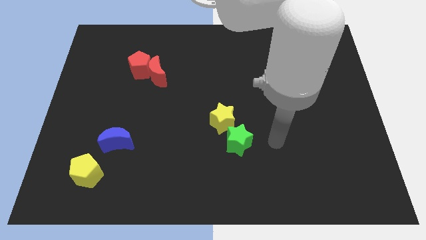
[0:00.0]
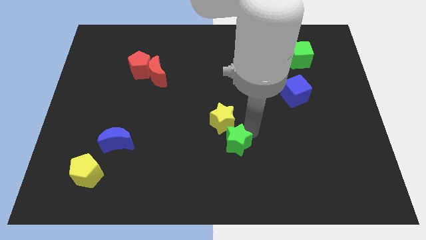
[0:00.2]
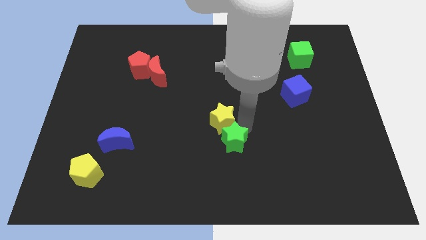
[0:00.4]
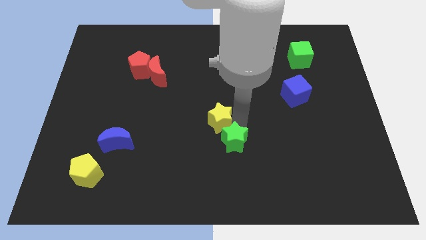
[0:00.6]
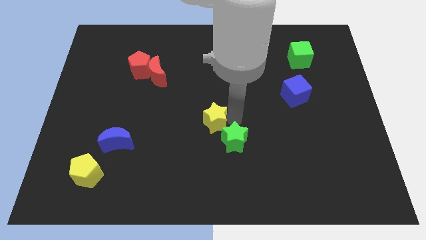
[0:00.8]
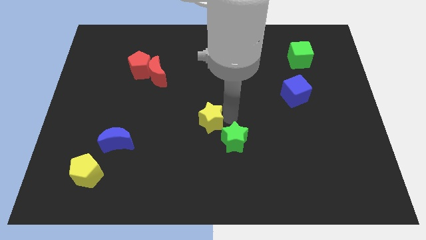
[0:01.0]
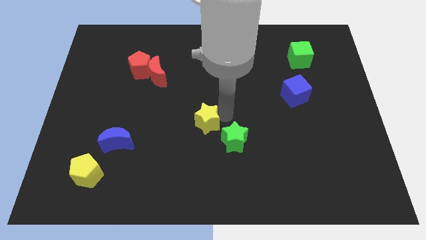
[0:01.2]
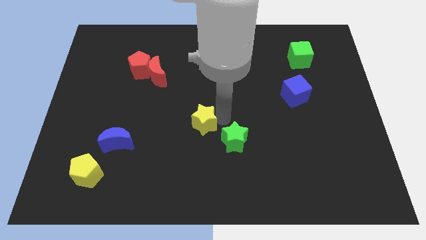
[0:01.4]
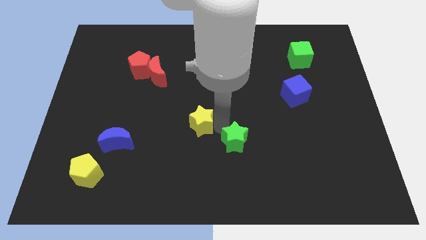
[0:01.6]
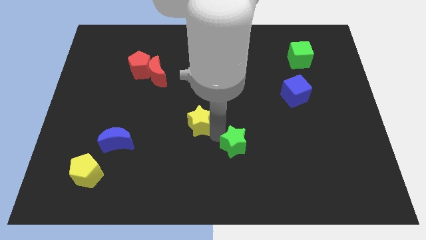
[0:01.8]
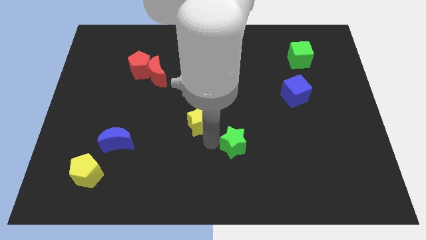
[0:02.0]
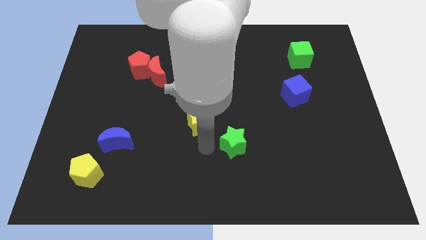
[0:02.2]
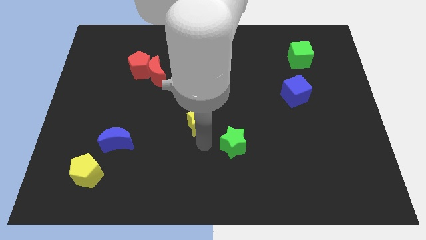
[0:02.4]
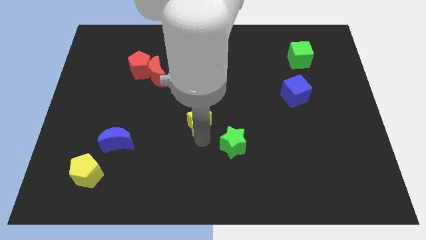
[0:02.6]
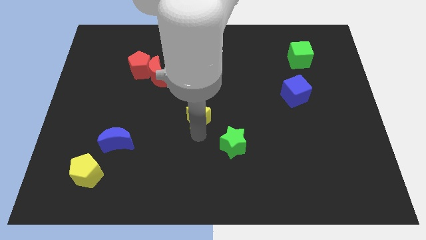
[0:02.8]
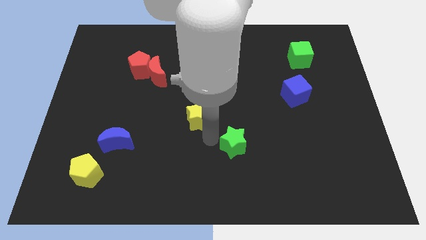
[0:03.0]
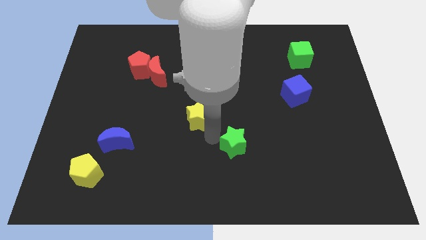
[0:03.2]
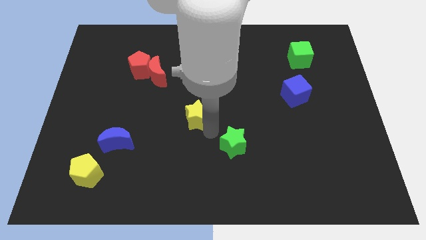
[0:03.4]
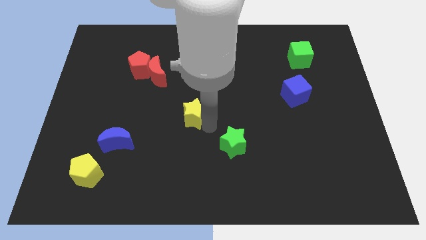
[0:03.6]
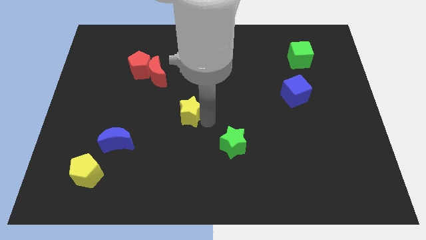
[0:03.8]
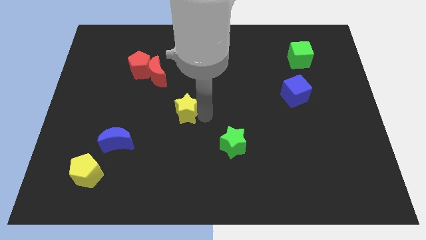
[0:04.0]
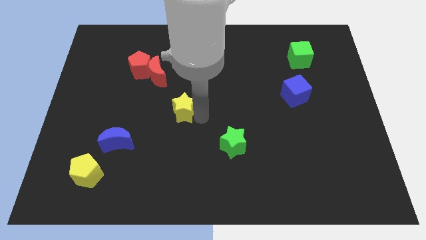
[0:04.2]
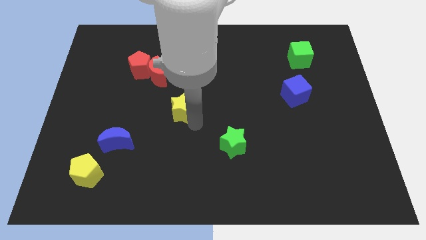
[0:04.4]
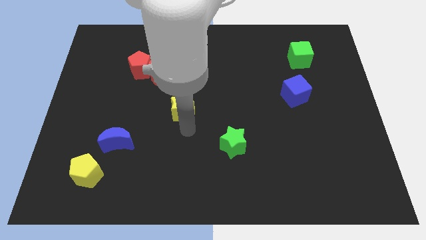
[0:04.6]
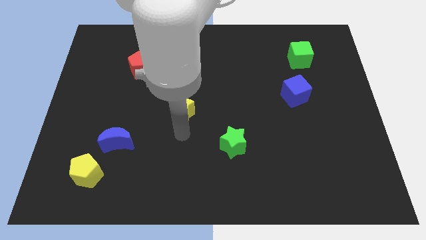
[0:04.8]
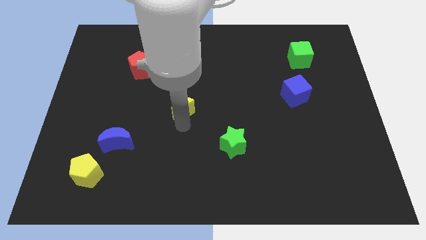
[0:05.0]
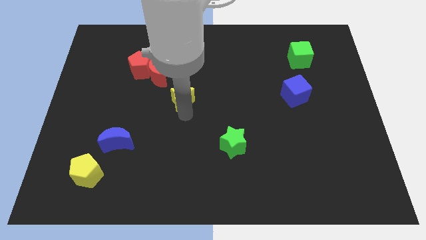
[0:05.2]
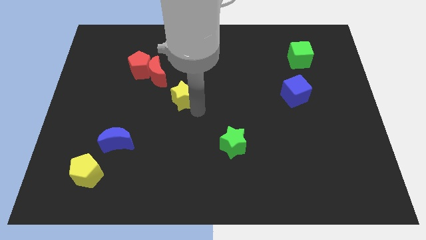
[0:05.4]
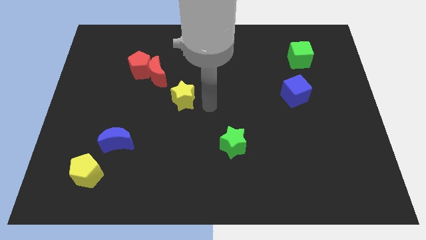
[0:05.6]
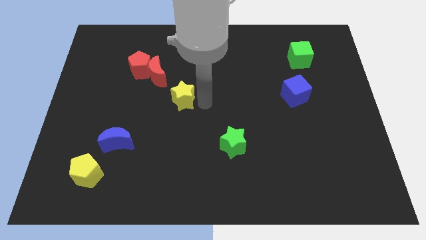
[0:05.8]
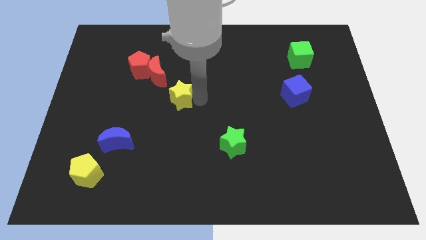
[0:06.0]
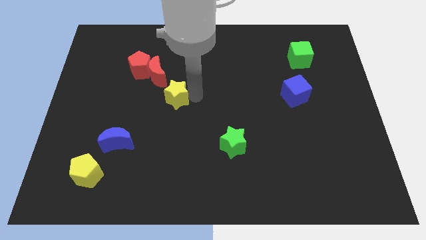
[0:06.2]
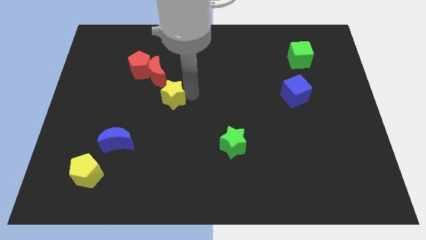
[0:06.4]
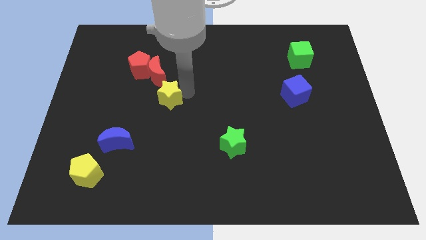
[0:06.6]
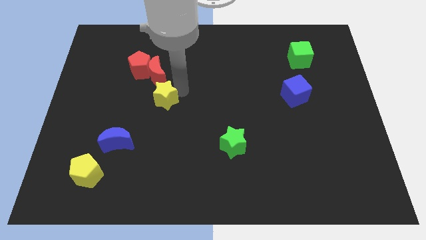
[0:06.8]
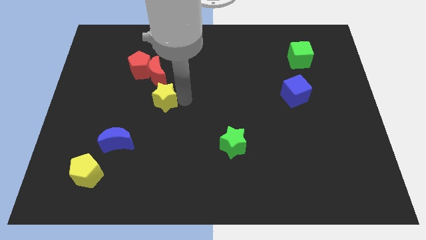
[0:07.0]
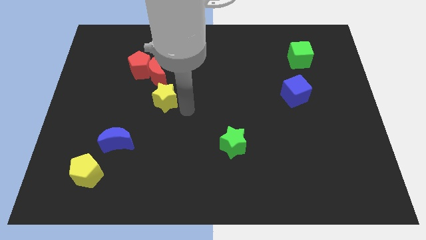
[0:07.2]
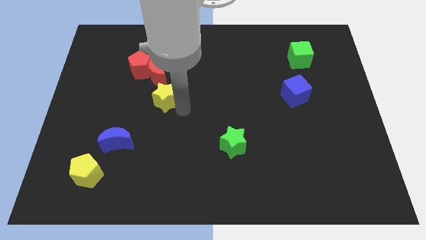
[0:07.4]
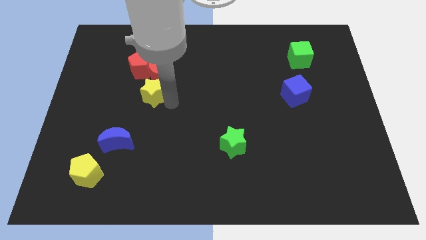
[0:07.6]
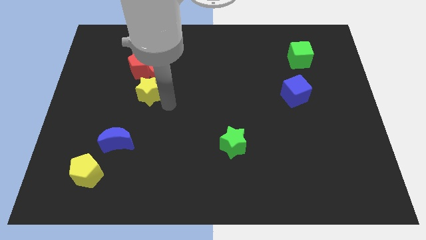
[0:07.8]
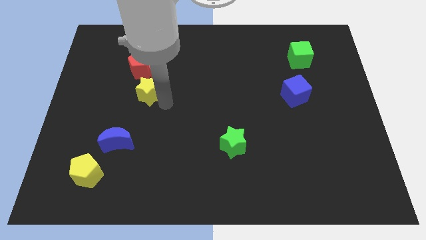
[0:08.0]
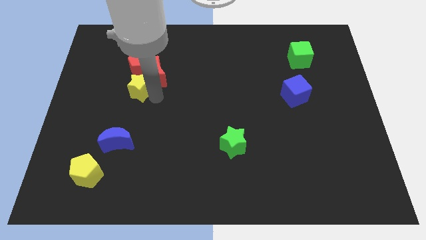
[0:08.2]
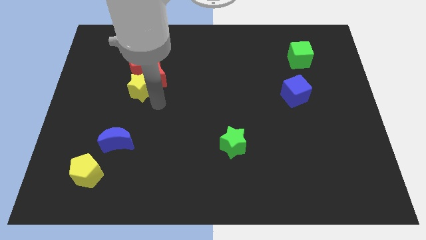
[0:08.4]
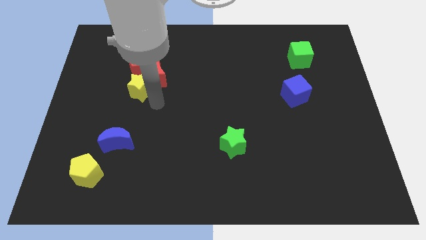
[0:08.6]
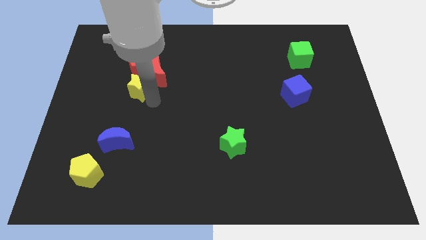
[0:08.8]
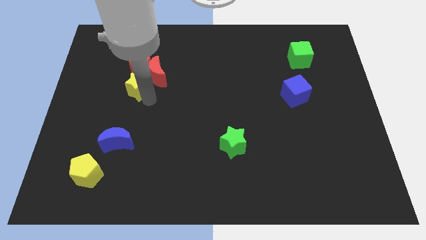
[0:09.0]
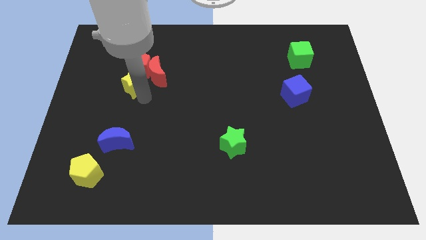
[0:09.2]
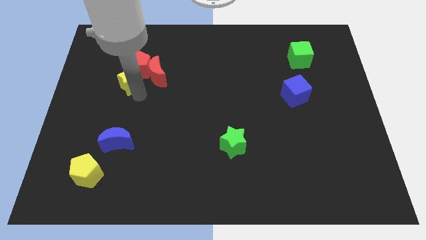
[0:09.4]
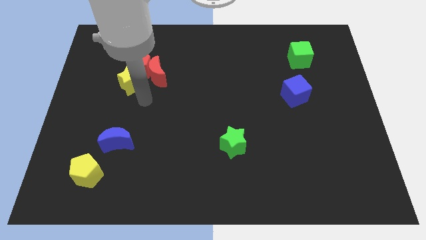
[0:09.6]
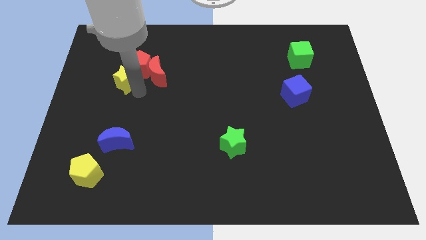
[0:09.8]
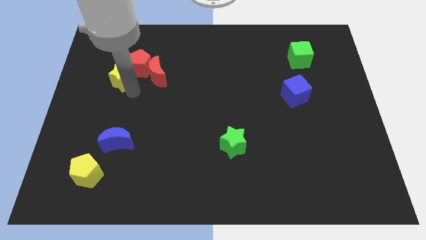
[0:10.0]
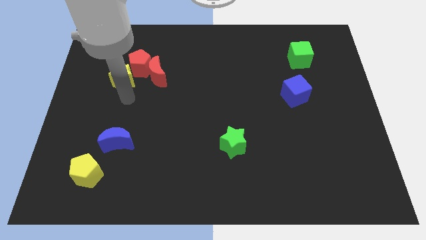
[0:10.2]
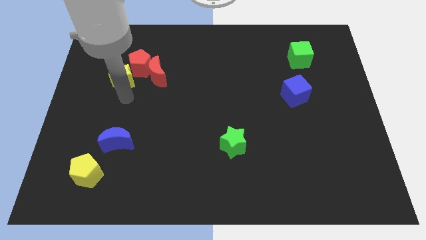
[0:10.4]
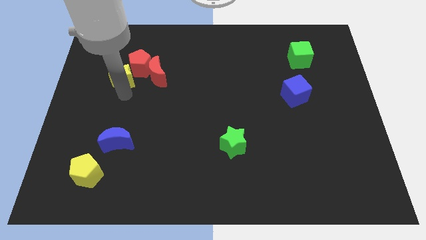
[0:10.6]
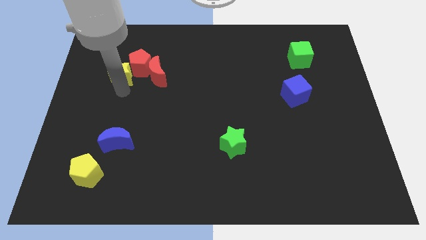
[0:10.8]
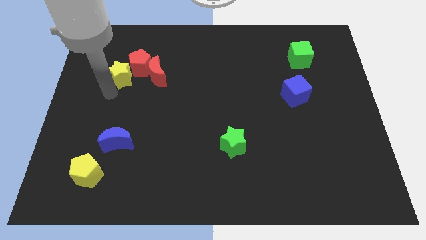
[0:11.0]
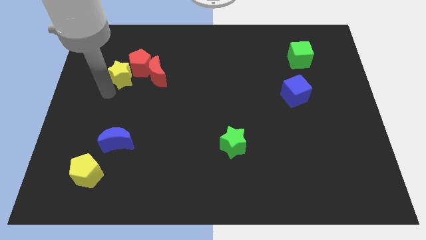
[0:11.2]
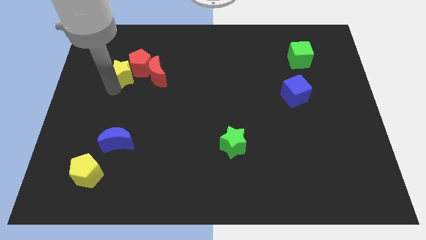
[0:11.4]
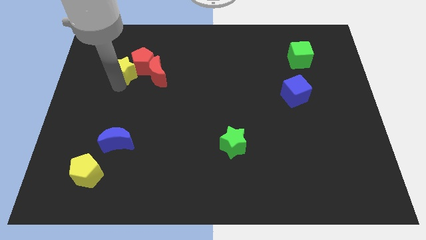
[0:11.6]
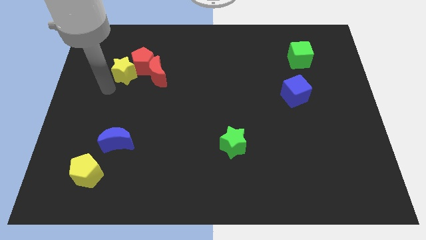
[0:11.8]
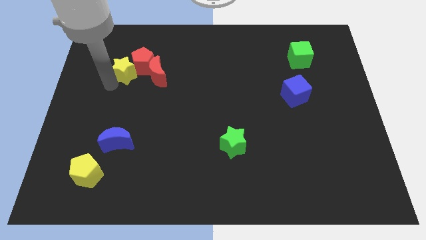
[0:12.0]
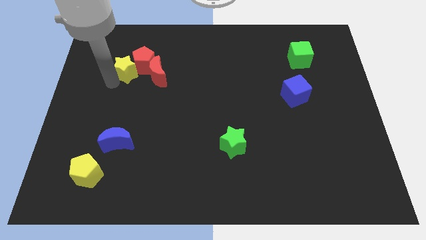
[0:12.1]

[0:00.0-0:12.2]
push the yellow star to the top left side of the red moon

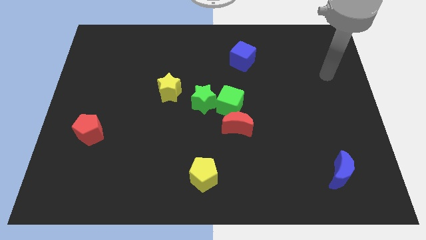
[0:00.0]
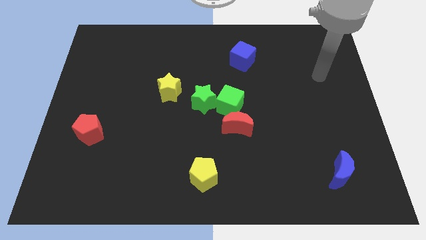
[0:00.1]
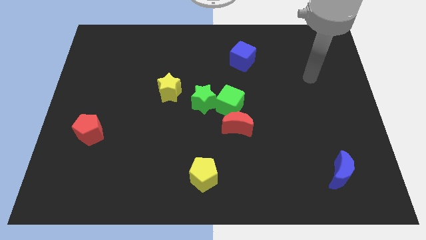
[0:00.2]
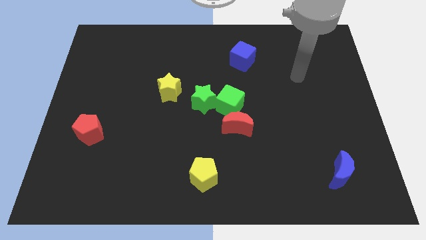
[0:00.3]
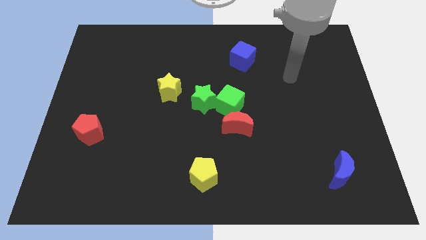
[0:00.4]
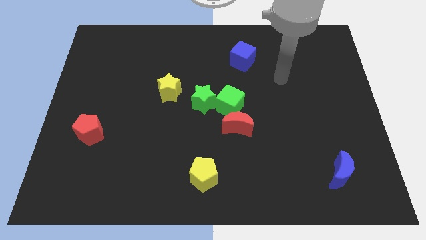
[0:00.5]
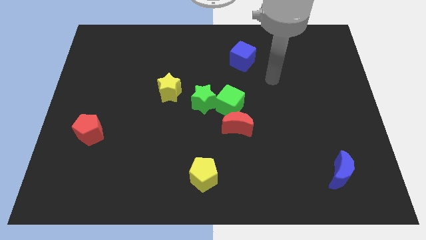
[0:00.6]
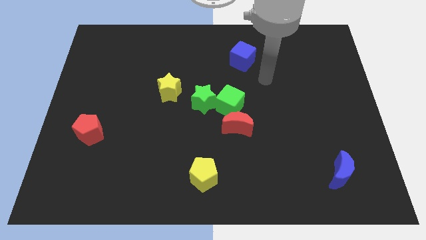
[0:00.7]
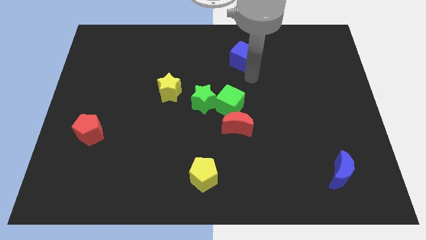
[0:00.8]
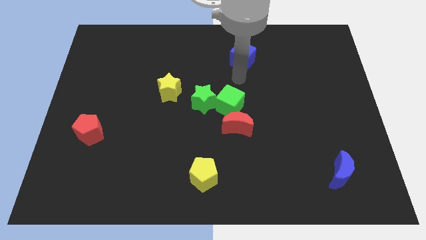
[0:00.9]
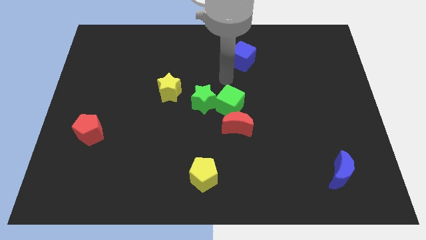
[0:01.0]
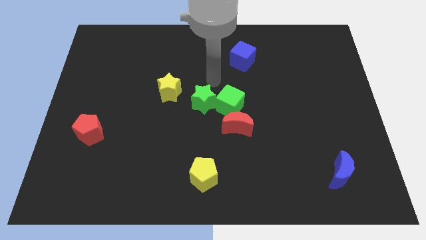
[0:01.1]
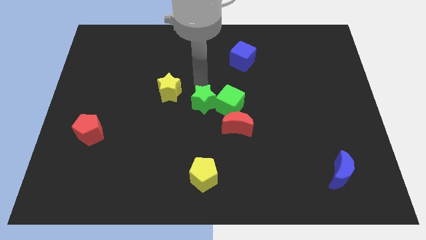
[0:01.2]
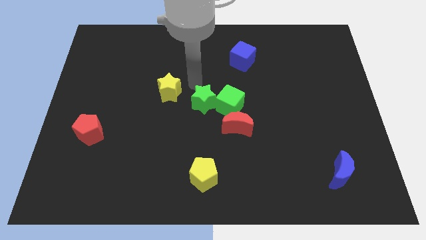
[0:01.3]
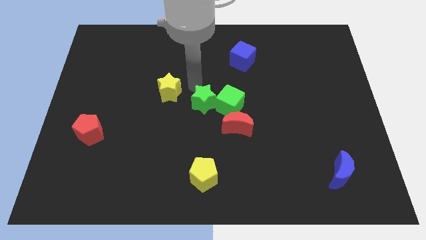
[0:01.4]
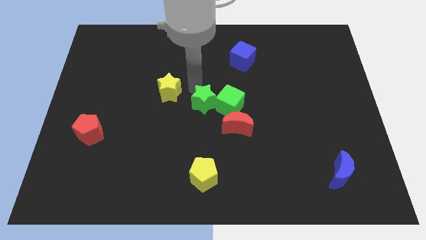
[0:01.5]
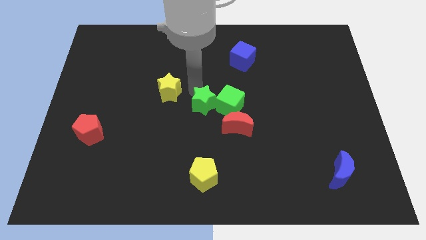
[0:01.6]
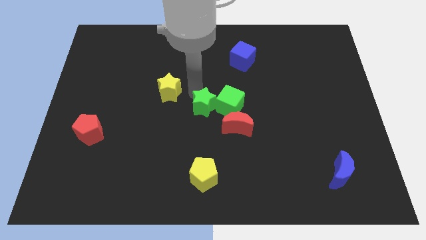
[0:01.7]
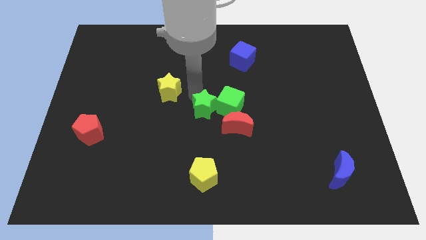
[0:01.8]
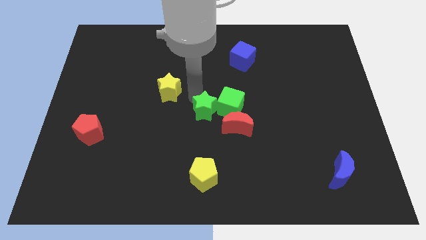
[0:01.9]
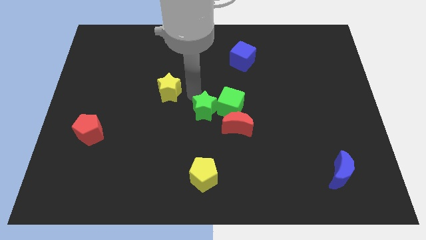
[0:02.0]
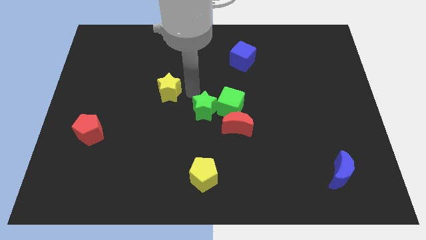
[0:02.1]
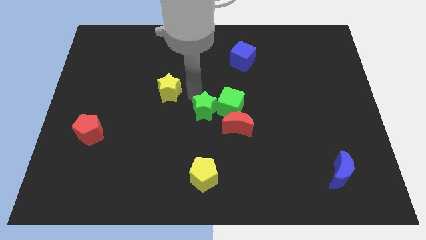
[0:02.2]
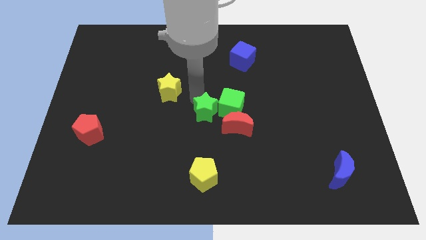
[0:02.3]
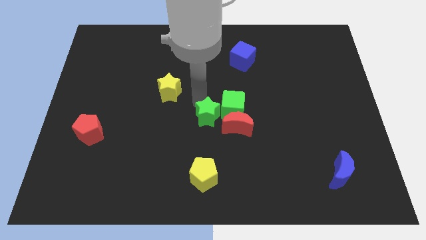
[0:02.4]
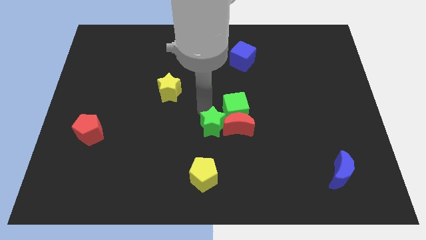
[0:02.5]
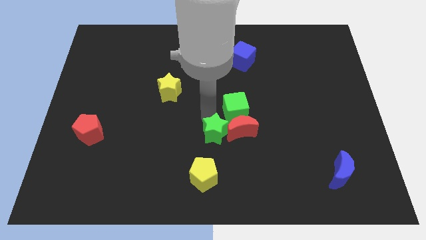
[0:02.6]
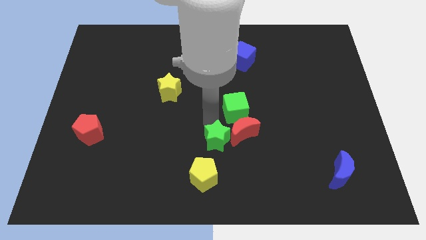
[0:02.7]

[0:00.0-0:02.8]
slide the green star diagonally up and to the right of the yellow pentagon
